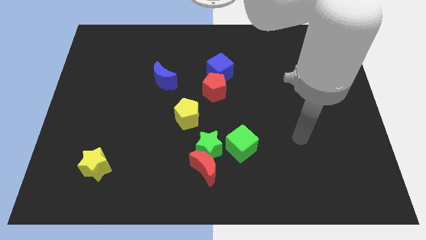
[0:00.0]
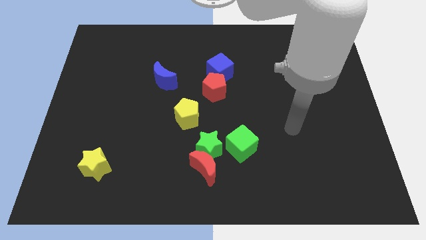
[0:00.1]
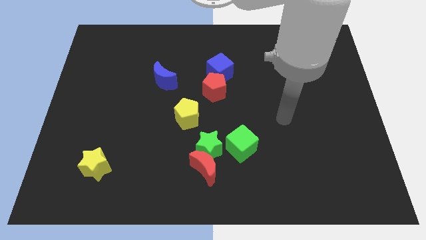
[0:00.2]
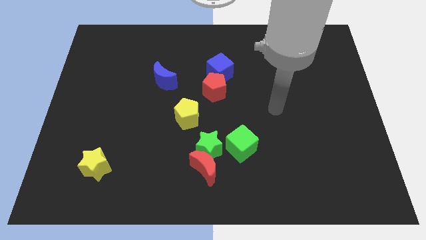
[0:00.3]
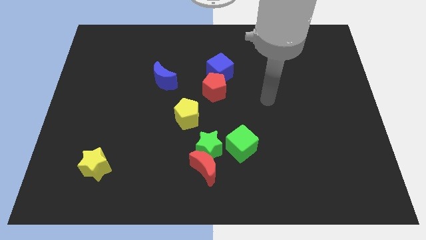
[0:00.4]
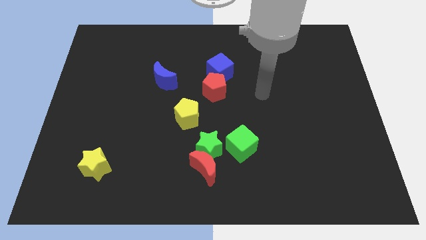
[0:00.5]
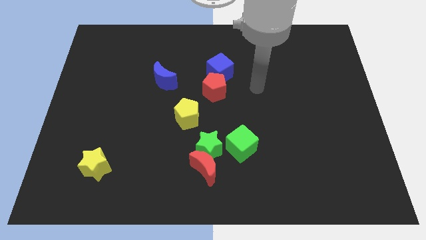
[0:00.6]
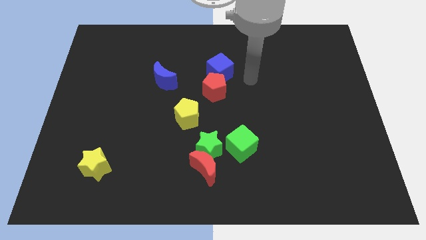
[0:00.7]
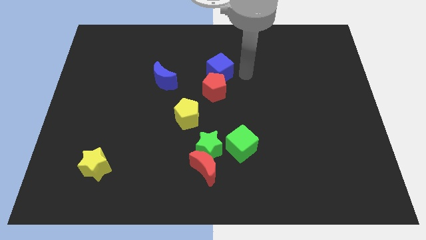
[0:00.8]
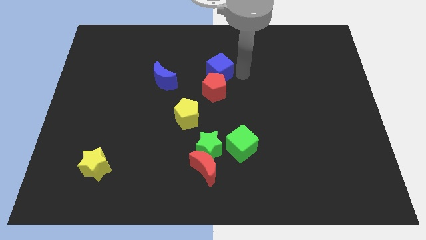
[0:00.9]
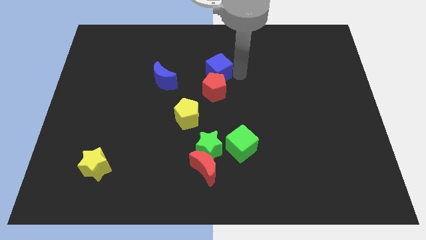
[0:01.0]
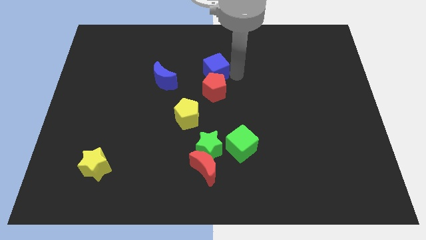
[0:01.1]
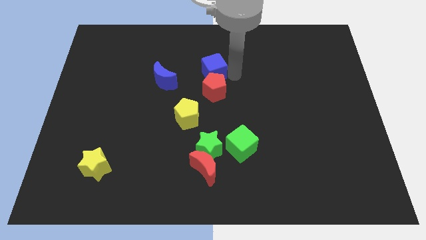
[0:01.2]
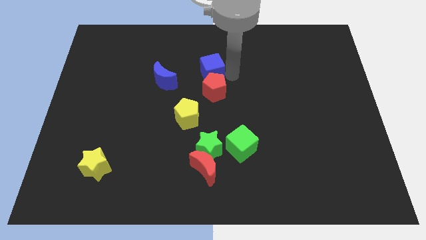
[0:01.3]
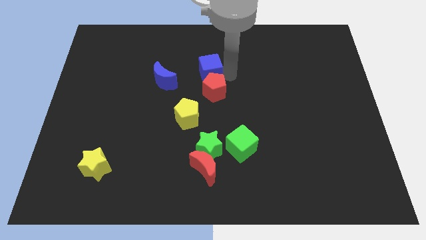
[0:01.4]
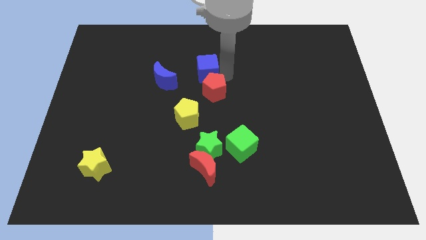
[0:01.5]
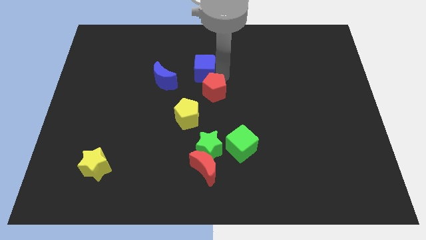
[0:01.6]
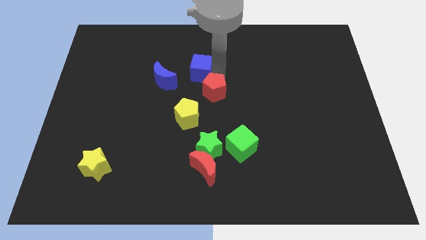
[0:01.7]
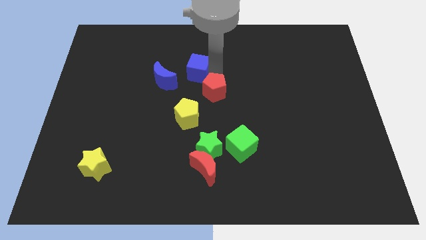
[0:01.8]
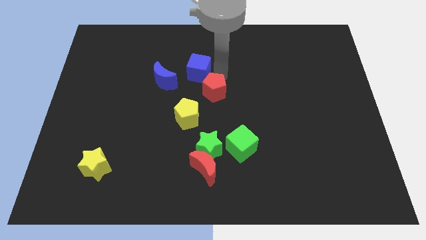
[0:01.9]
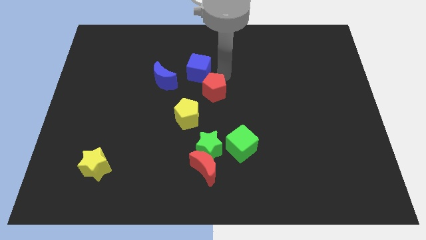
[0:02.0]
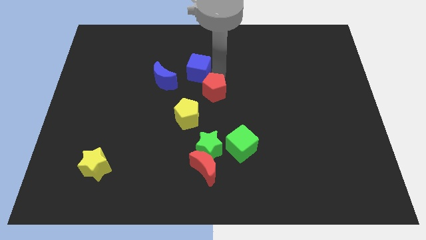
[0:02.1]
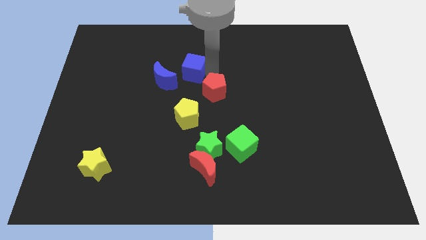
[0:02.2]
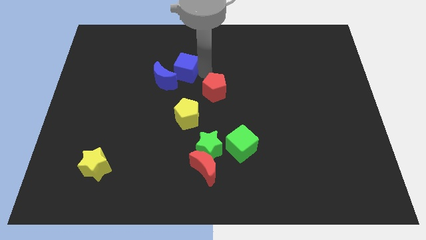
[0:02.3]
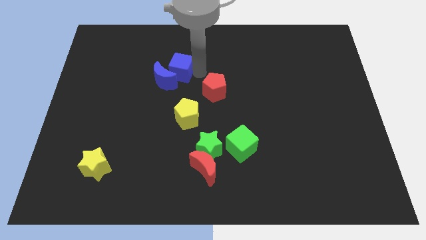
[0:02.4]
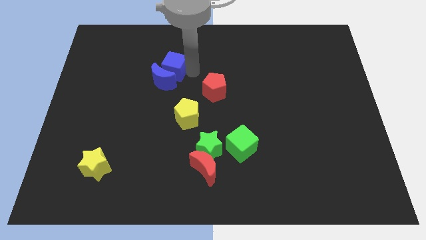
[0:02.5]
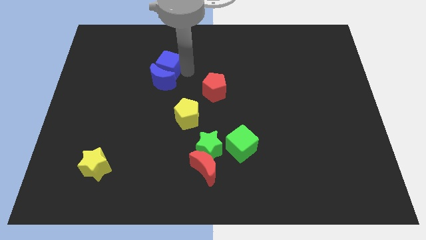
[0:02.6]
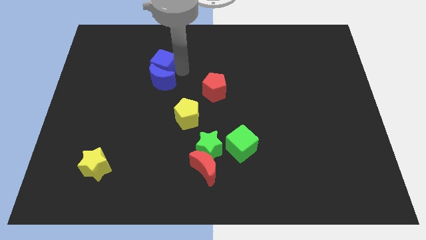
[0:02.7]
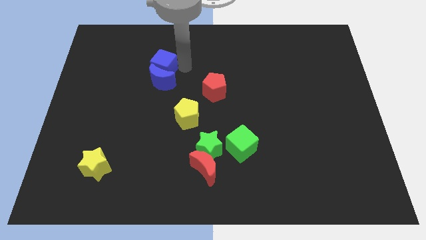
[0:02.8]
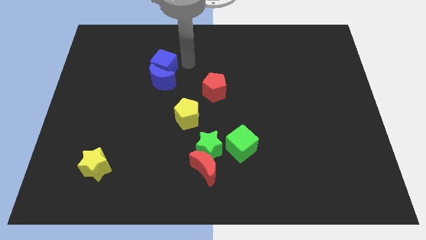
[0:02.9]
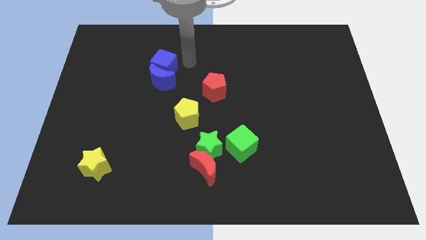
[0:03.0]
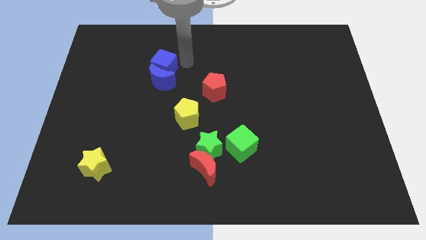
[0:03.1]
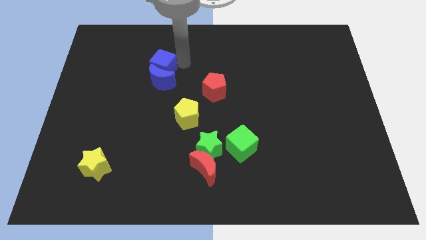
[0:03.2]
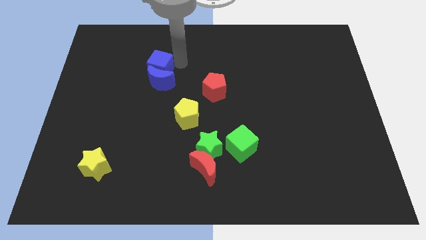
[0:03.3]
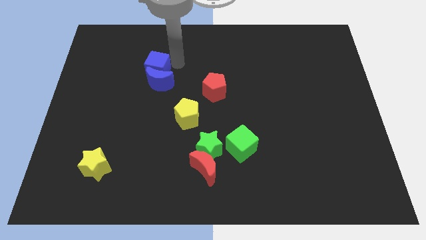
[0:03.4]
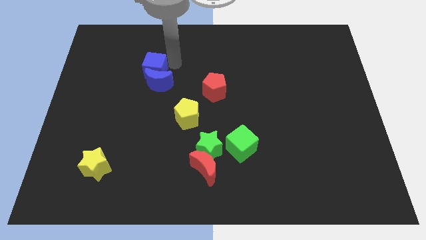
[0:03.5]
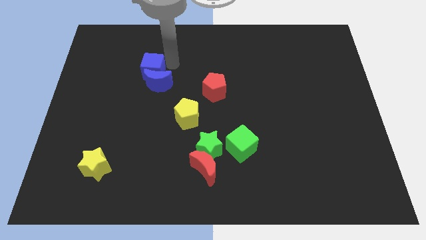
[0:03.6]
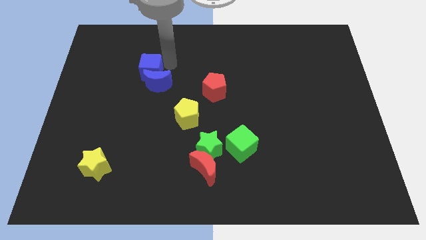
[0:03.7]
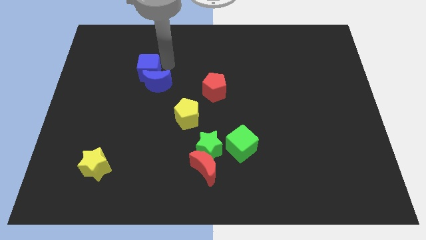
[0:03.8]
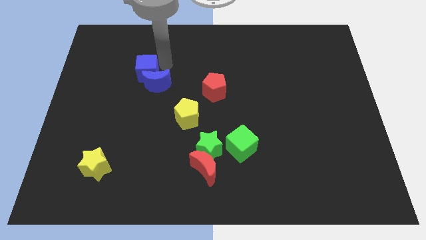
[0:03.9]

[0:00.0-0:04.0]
move the blue cube to the left of the blue moon

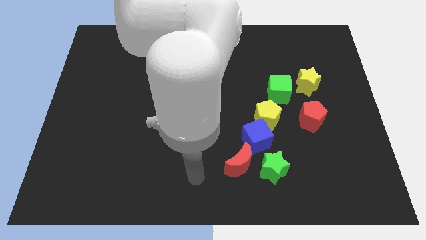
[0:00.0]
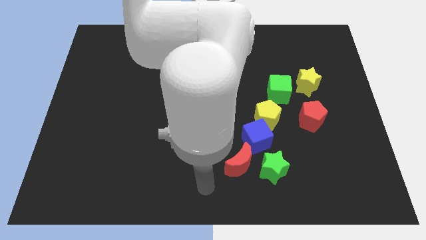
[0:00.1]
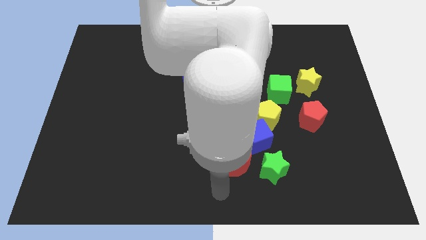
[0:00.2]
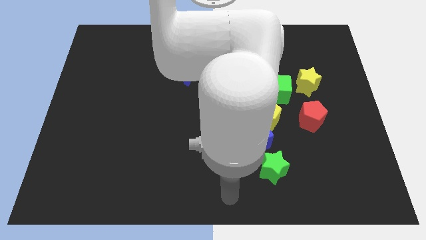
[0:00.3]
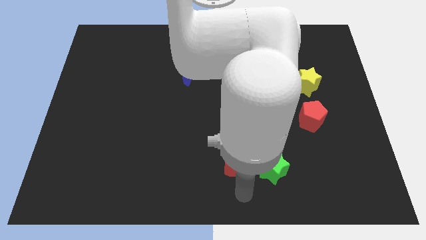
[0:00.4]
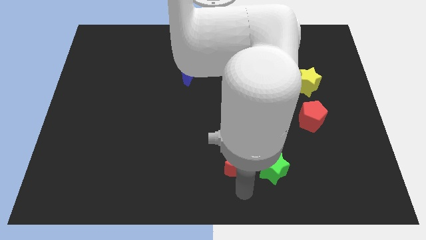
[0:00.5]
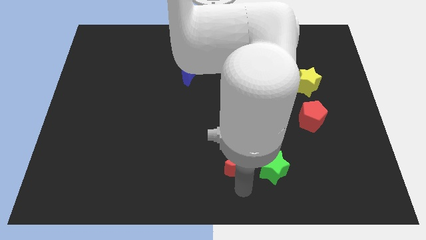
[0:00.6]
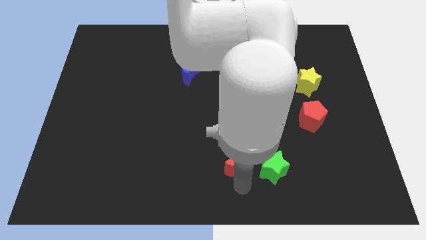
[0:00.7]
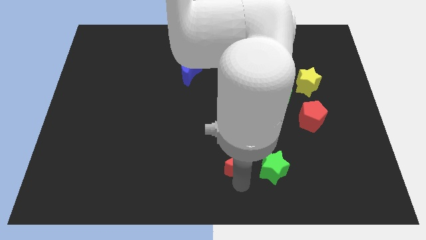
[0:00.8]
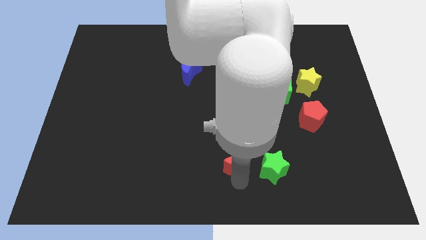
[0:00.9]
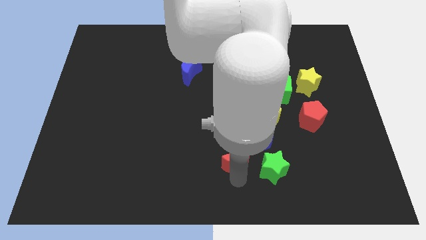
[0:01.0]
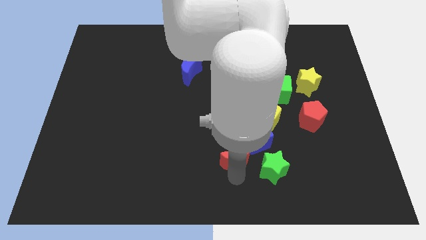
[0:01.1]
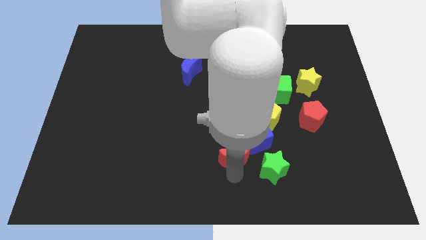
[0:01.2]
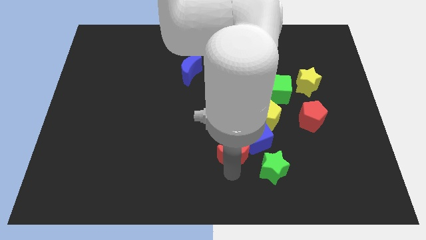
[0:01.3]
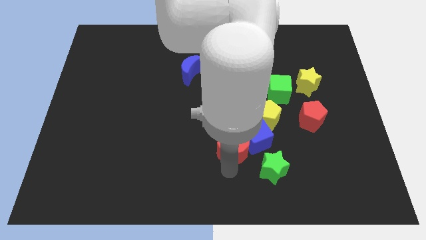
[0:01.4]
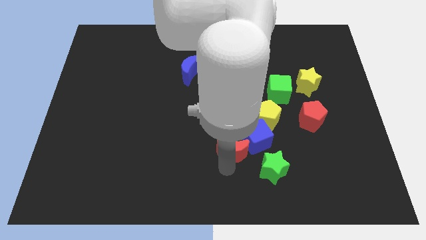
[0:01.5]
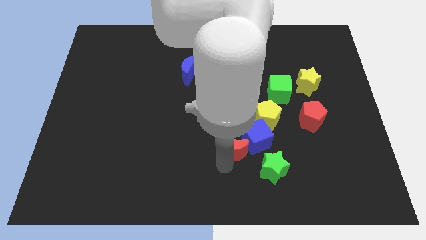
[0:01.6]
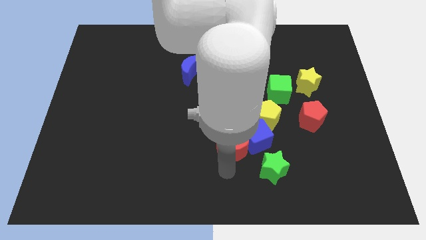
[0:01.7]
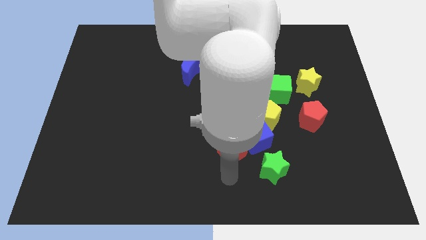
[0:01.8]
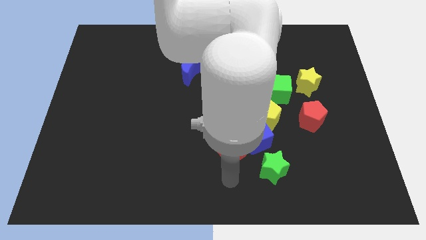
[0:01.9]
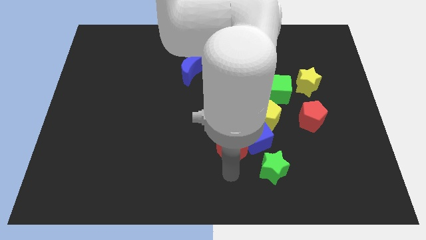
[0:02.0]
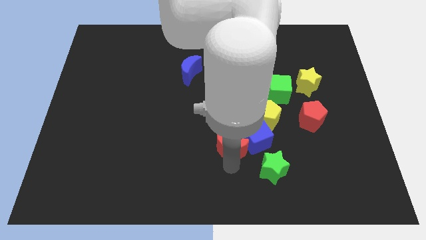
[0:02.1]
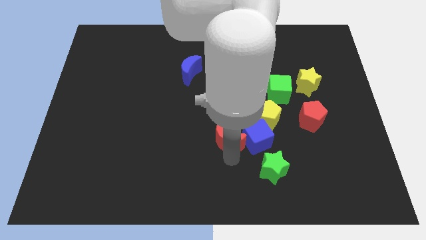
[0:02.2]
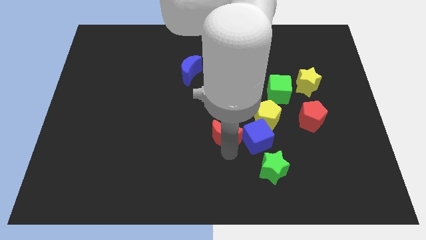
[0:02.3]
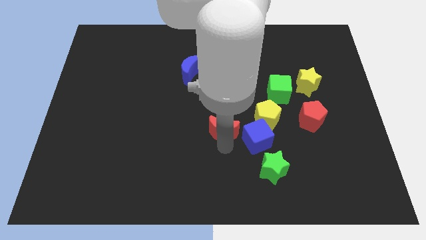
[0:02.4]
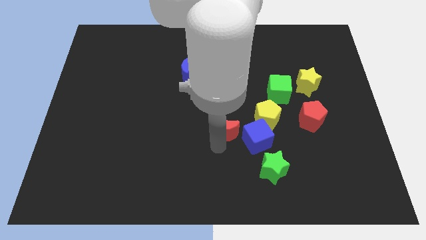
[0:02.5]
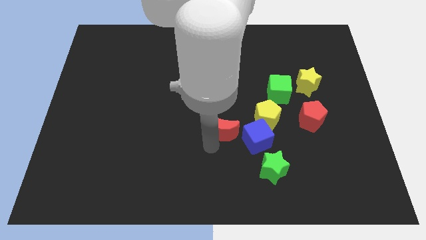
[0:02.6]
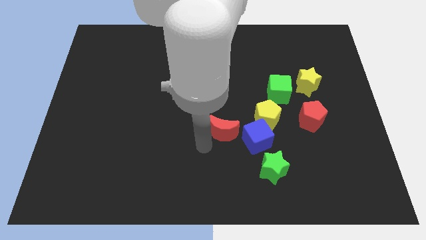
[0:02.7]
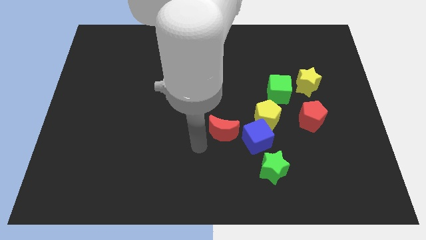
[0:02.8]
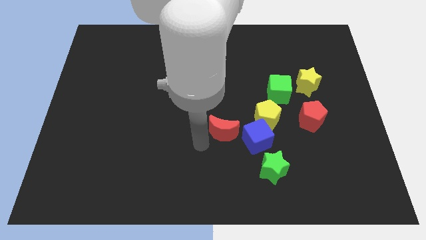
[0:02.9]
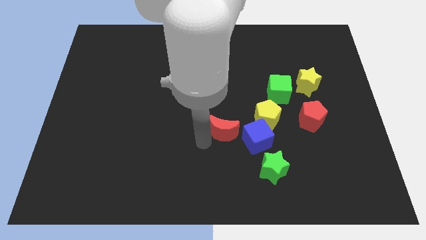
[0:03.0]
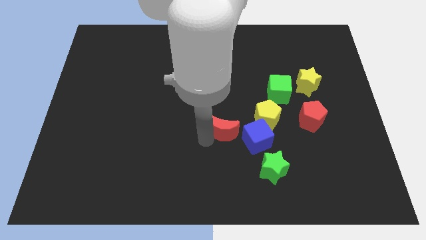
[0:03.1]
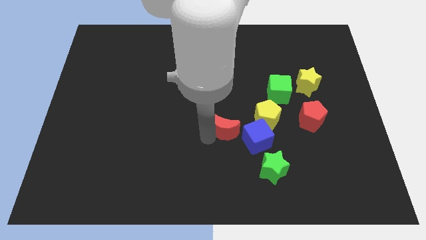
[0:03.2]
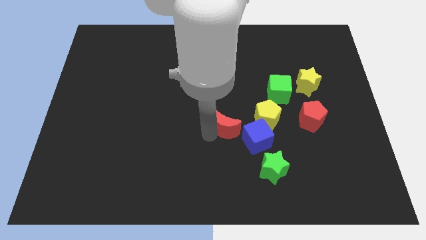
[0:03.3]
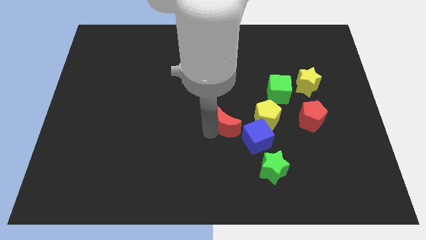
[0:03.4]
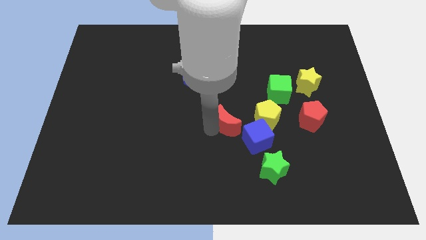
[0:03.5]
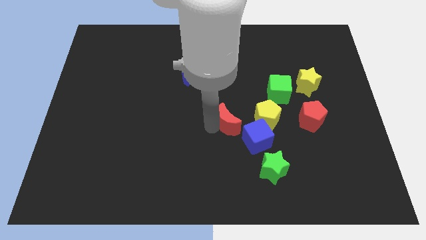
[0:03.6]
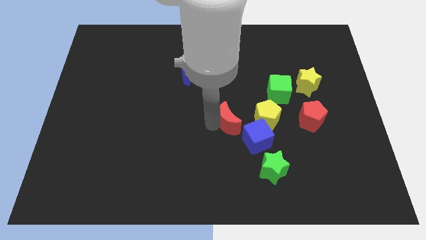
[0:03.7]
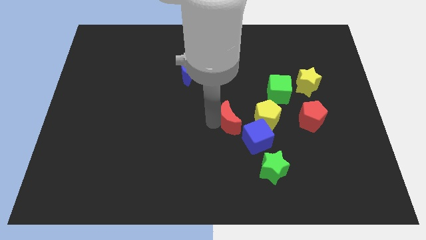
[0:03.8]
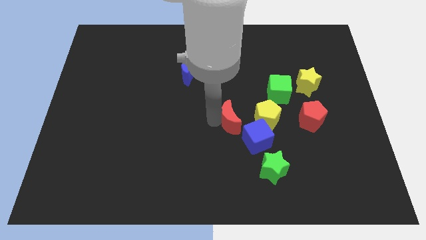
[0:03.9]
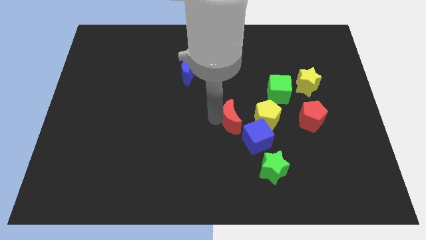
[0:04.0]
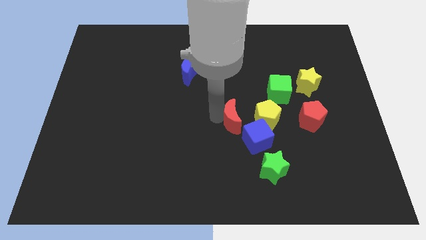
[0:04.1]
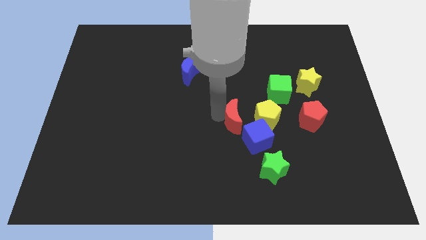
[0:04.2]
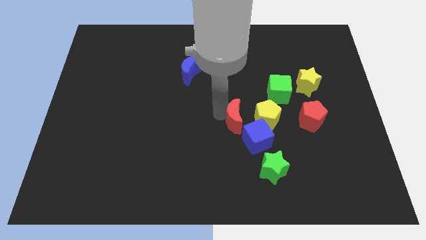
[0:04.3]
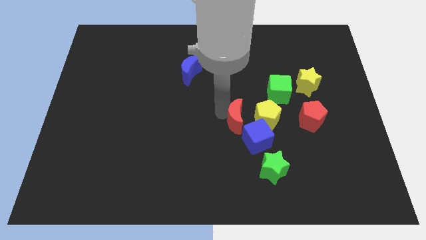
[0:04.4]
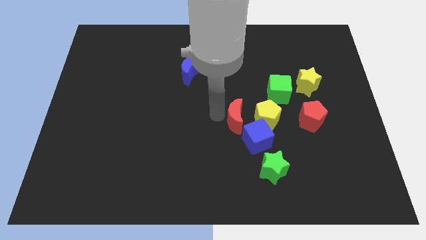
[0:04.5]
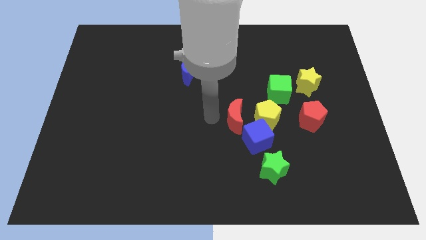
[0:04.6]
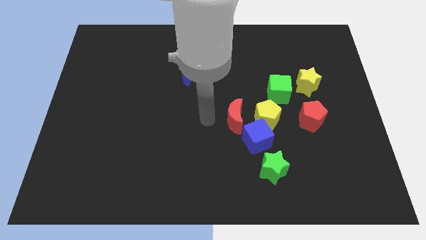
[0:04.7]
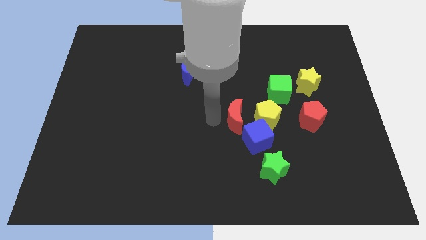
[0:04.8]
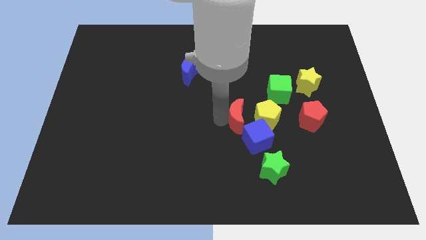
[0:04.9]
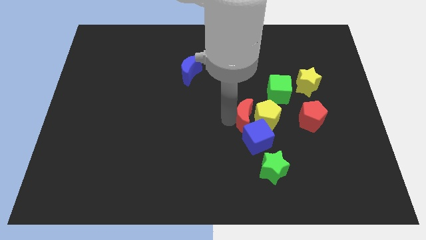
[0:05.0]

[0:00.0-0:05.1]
push the red moon left of the red pentagon
